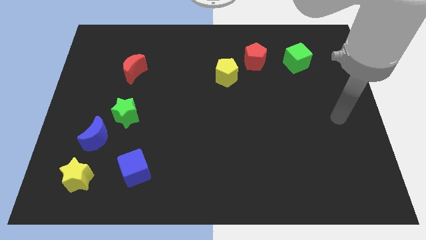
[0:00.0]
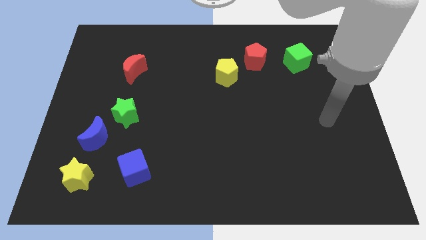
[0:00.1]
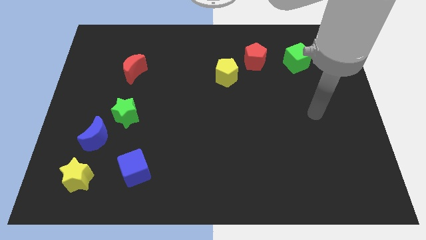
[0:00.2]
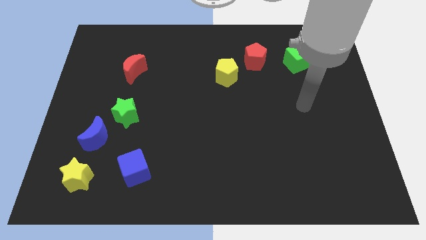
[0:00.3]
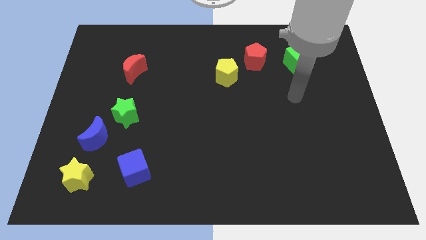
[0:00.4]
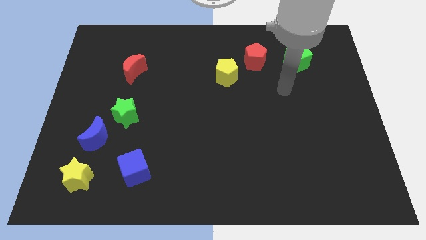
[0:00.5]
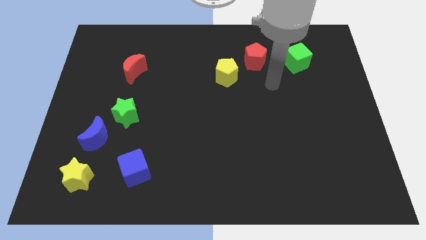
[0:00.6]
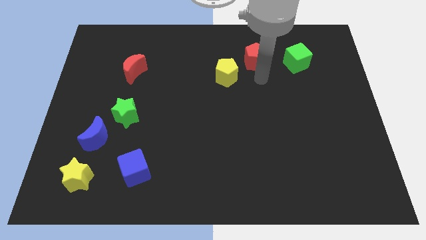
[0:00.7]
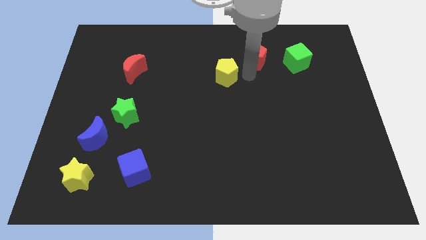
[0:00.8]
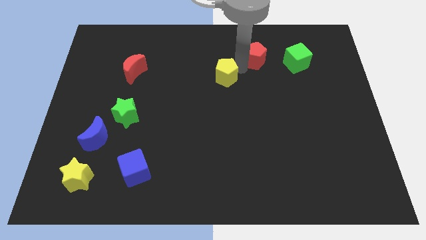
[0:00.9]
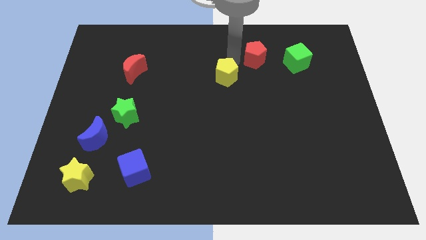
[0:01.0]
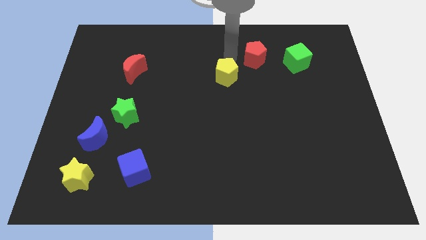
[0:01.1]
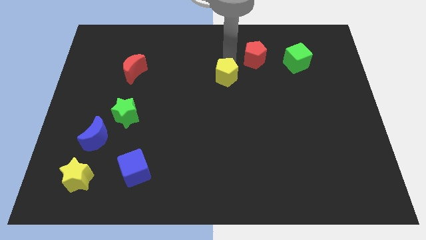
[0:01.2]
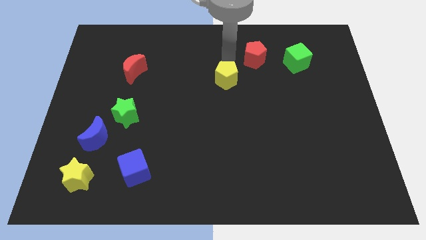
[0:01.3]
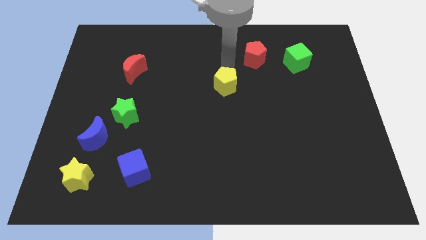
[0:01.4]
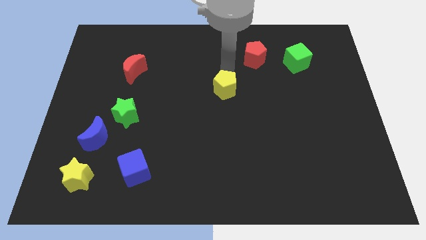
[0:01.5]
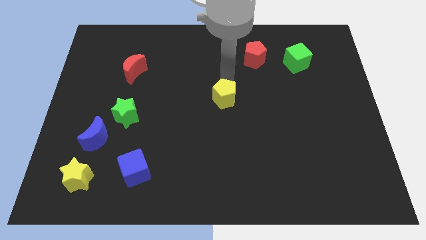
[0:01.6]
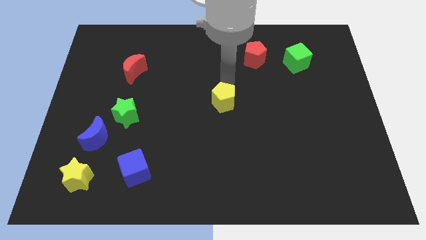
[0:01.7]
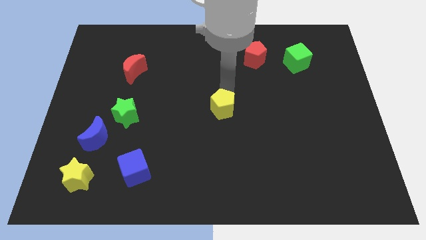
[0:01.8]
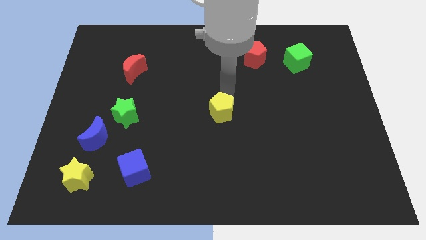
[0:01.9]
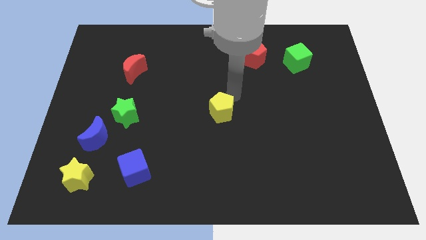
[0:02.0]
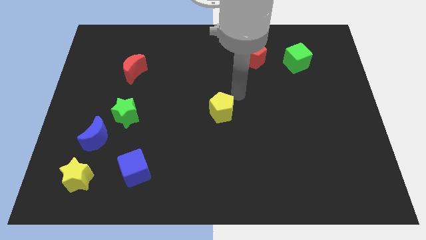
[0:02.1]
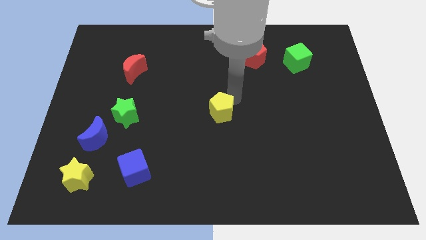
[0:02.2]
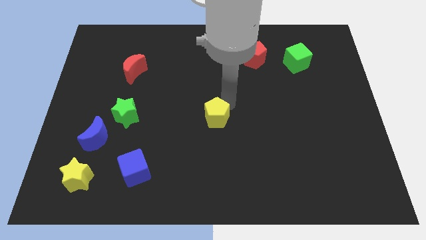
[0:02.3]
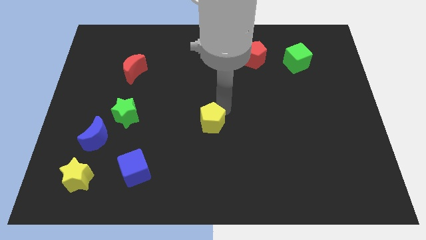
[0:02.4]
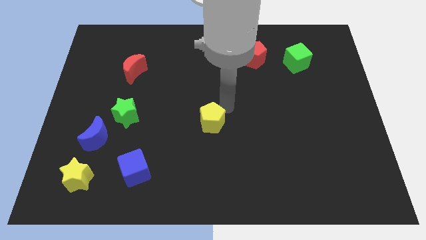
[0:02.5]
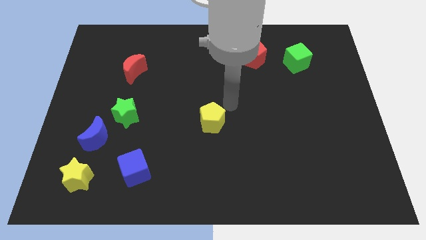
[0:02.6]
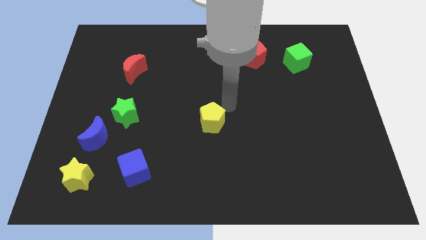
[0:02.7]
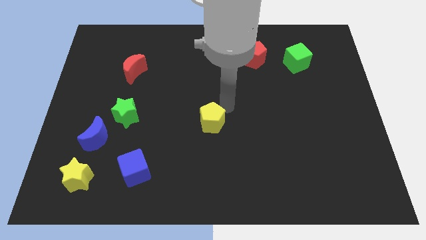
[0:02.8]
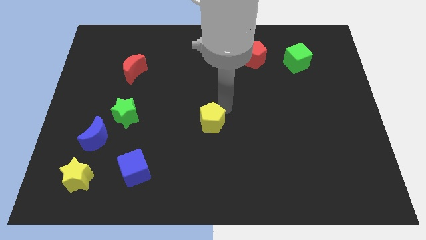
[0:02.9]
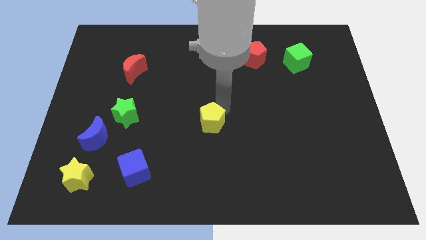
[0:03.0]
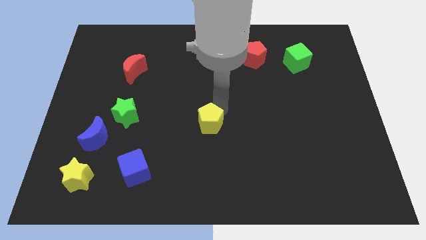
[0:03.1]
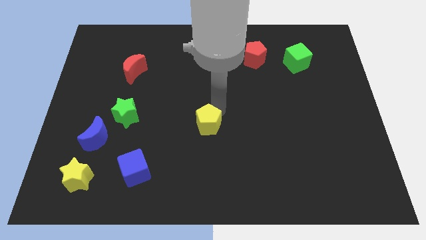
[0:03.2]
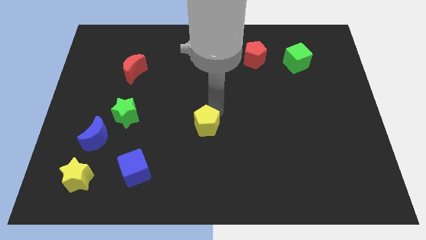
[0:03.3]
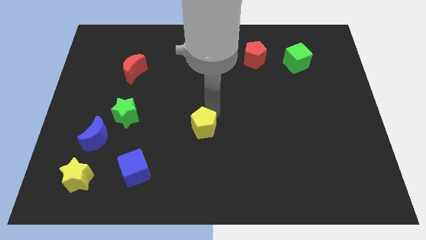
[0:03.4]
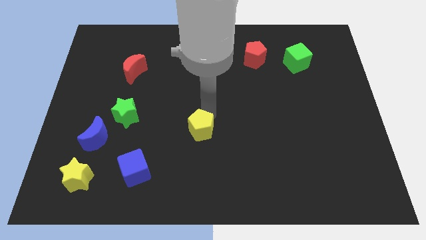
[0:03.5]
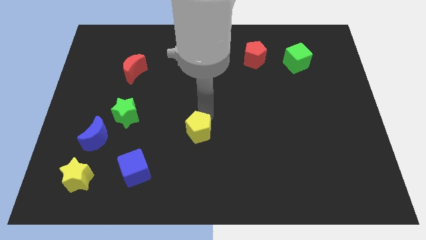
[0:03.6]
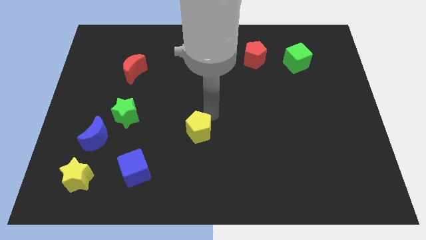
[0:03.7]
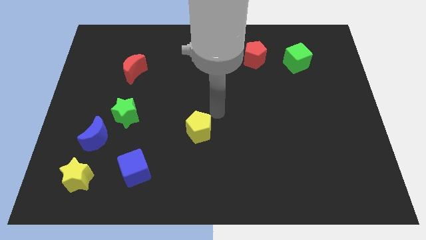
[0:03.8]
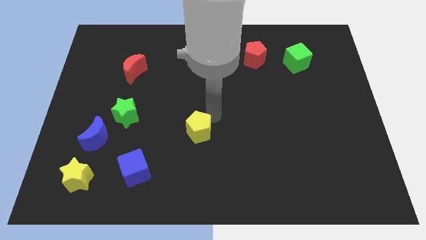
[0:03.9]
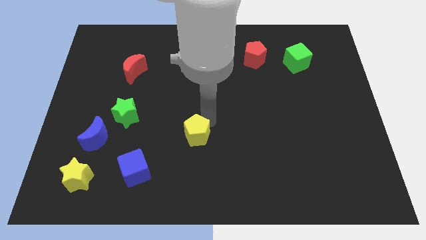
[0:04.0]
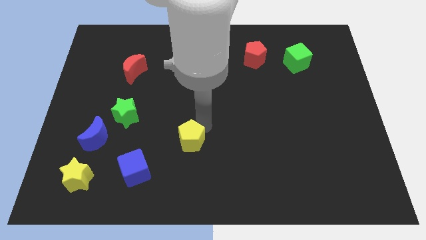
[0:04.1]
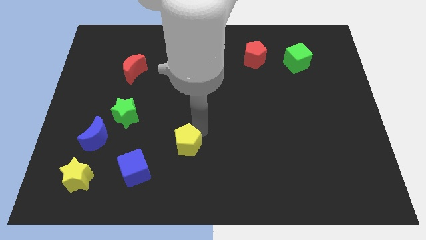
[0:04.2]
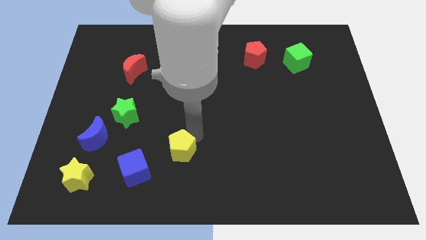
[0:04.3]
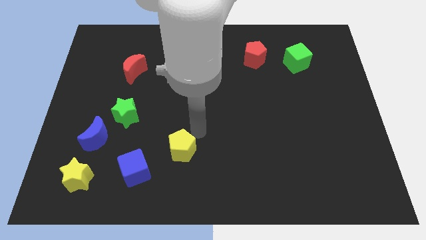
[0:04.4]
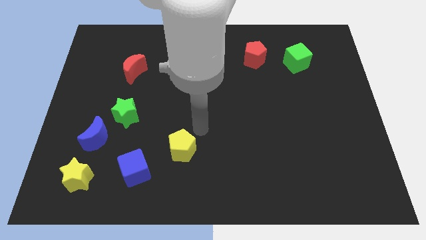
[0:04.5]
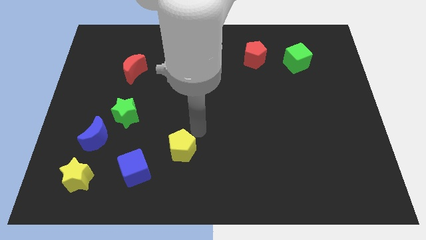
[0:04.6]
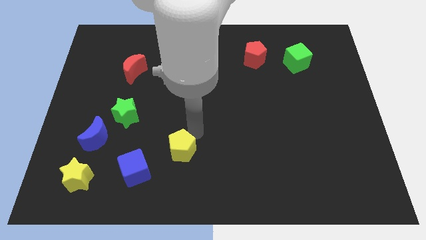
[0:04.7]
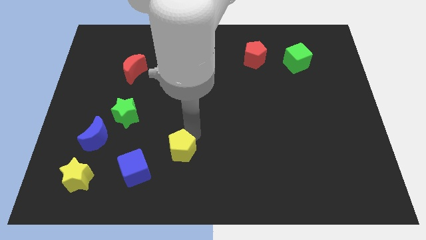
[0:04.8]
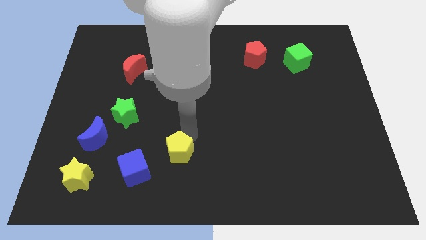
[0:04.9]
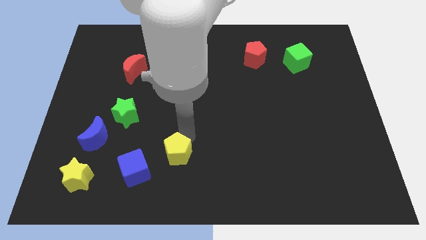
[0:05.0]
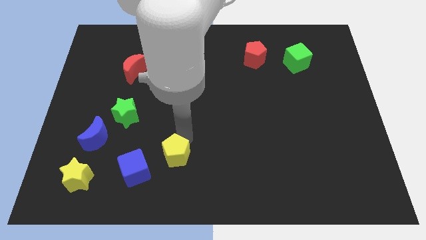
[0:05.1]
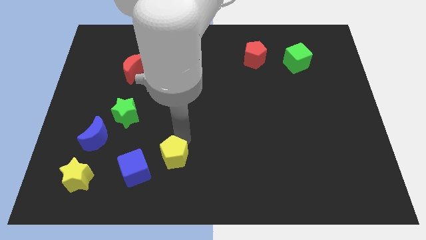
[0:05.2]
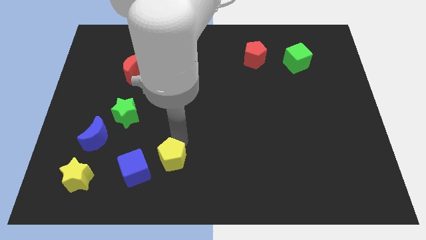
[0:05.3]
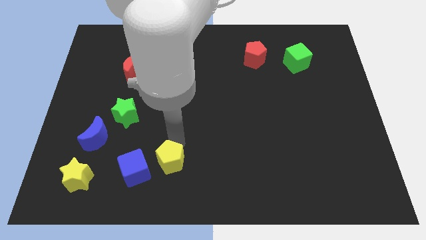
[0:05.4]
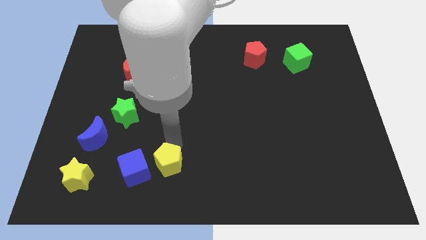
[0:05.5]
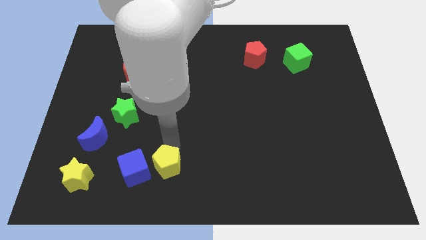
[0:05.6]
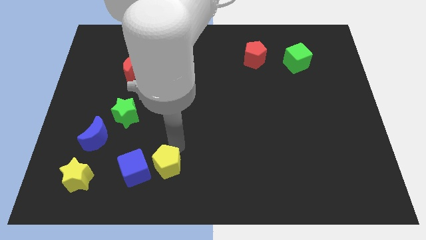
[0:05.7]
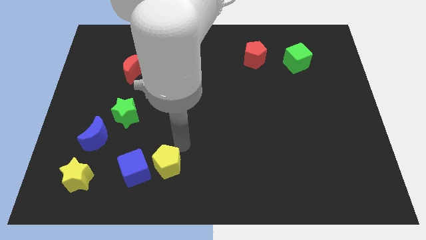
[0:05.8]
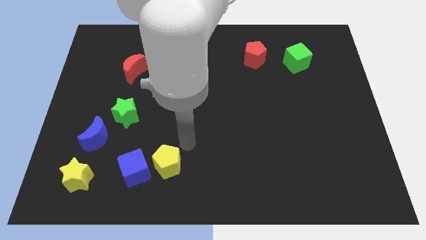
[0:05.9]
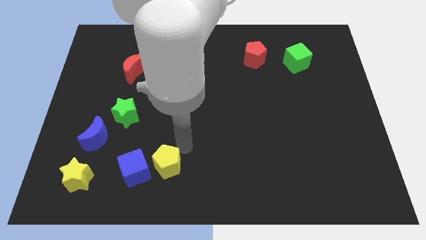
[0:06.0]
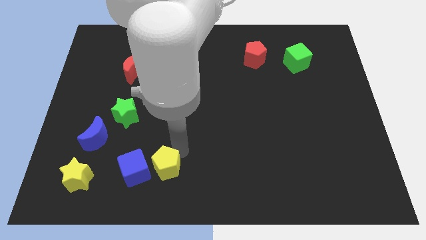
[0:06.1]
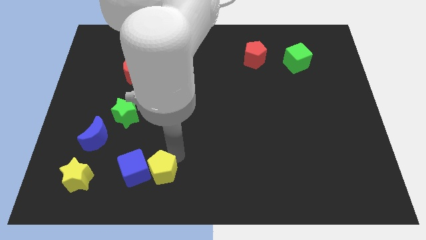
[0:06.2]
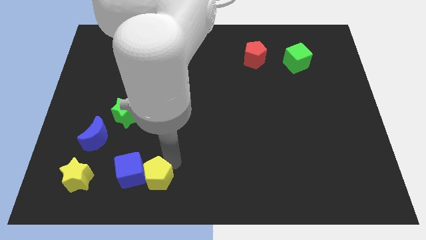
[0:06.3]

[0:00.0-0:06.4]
slide the yellow pentagon just right of the yellow star
